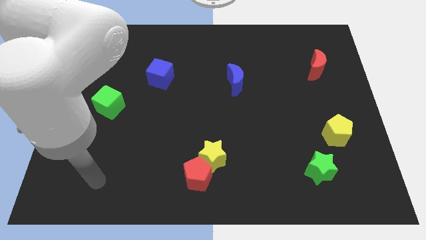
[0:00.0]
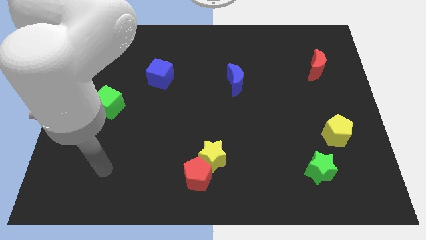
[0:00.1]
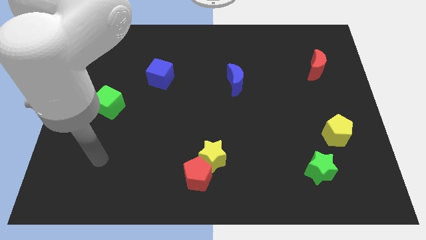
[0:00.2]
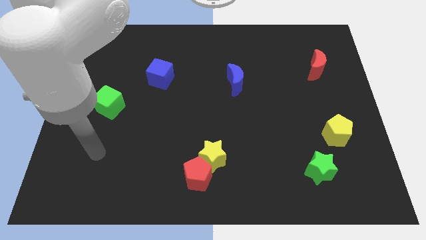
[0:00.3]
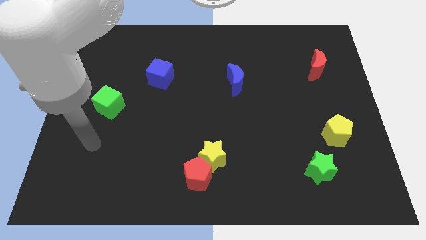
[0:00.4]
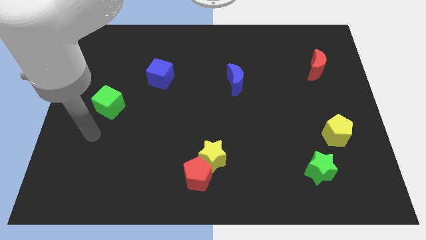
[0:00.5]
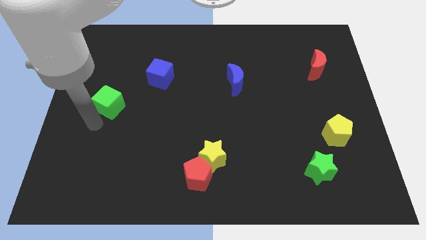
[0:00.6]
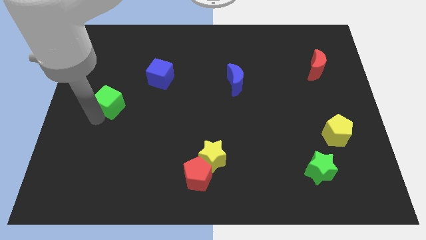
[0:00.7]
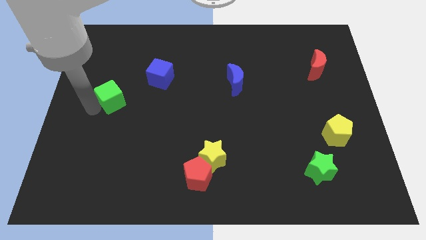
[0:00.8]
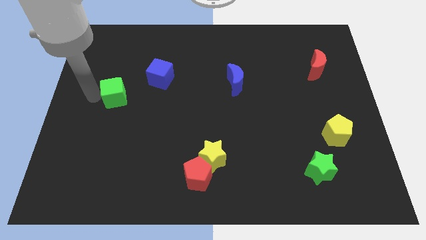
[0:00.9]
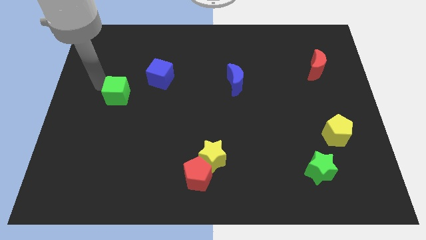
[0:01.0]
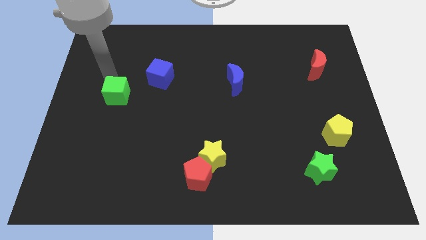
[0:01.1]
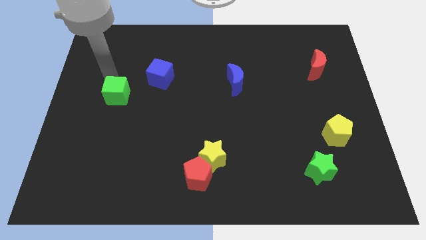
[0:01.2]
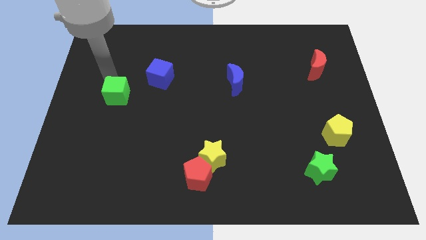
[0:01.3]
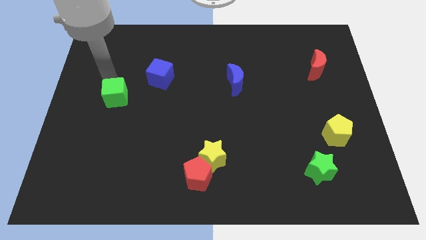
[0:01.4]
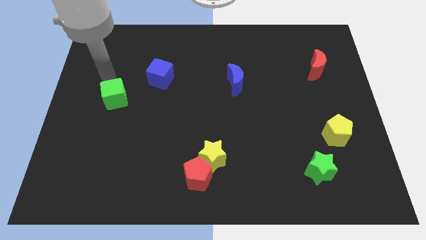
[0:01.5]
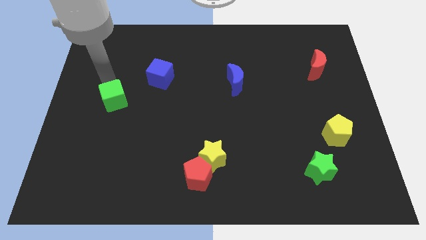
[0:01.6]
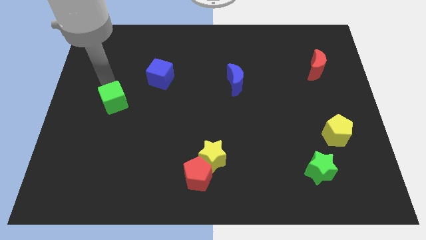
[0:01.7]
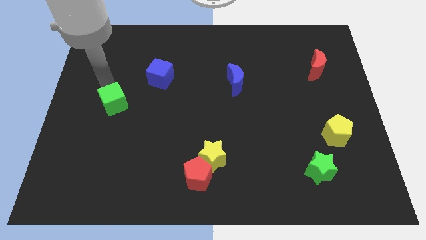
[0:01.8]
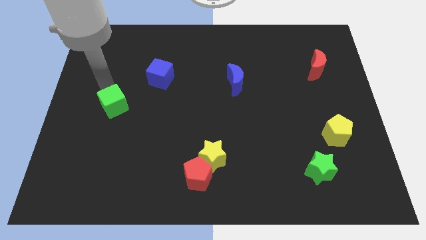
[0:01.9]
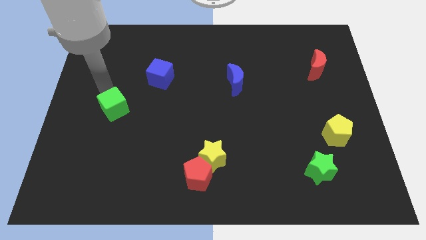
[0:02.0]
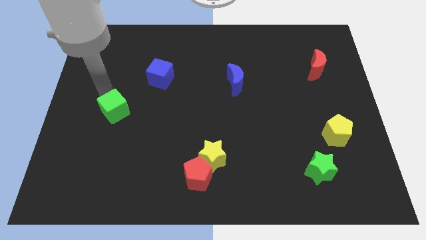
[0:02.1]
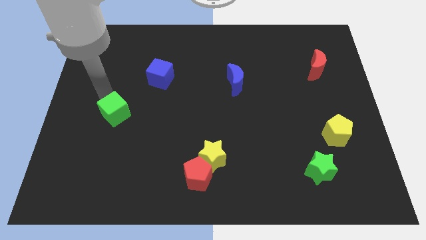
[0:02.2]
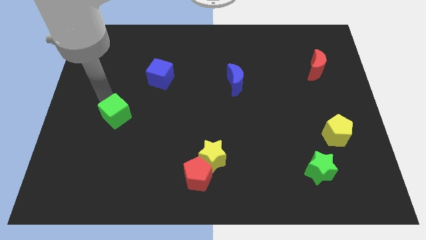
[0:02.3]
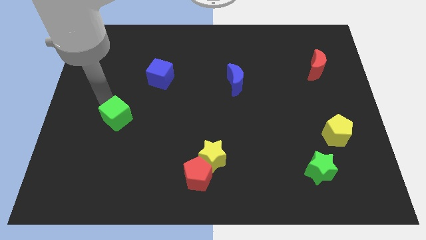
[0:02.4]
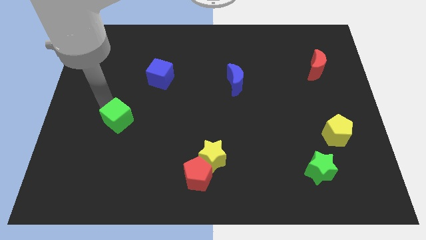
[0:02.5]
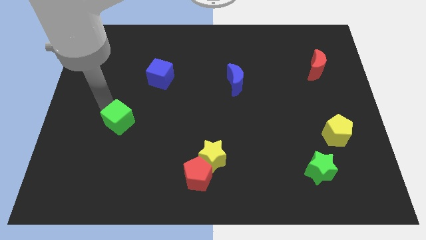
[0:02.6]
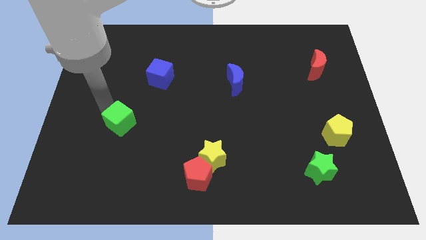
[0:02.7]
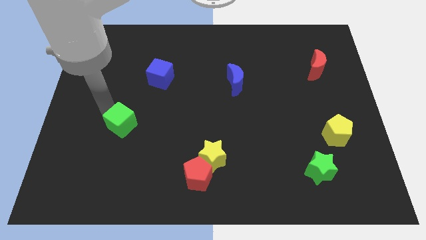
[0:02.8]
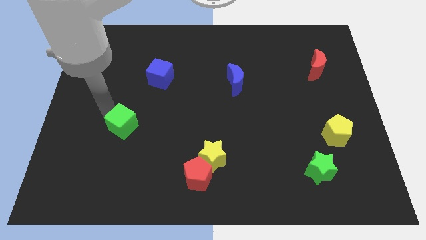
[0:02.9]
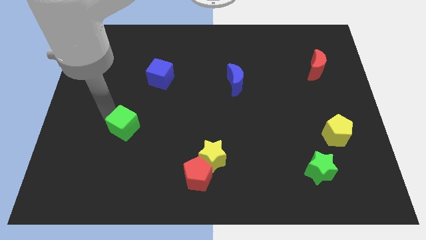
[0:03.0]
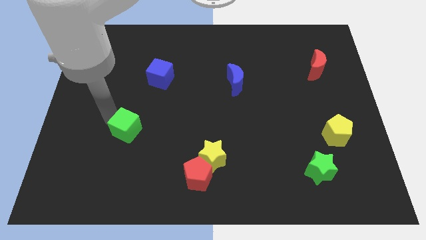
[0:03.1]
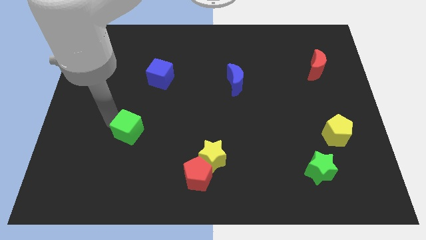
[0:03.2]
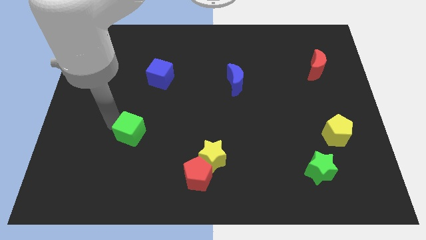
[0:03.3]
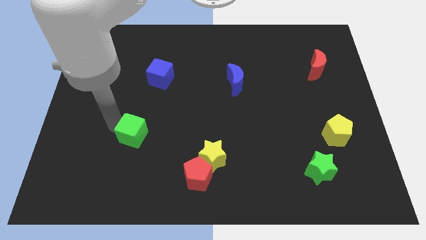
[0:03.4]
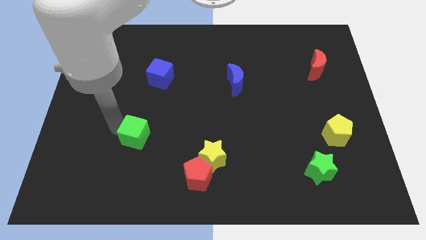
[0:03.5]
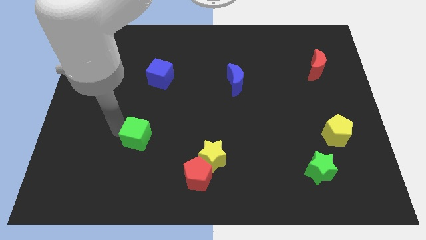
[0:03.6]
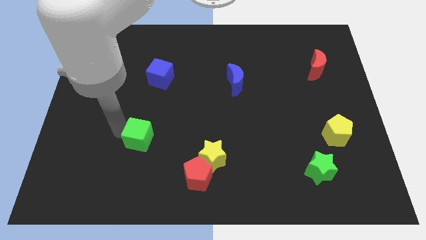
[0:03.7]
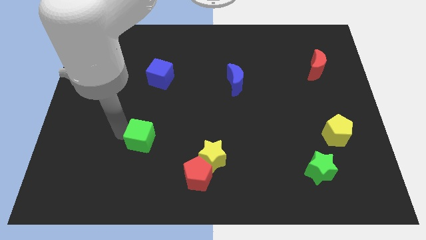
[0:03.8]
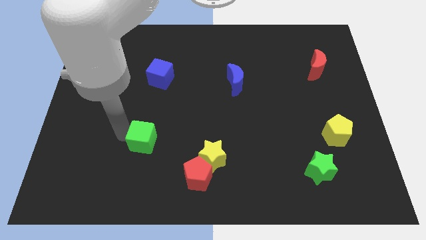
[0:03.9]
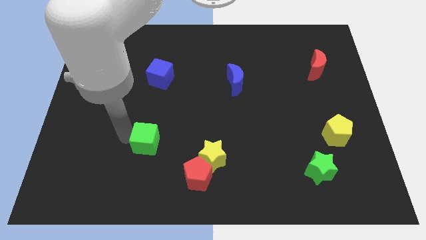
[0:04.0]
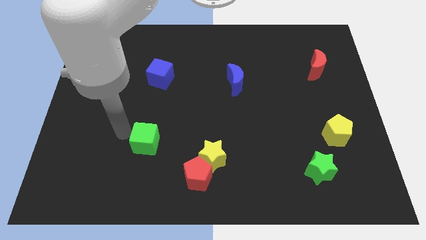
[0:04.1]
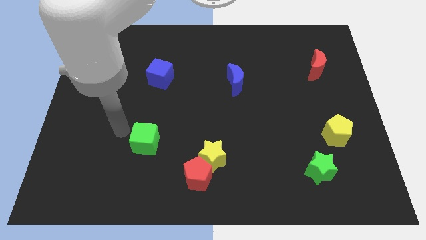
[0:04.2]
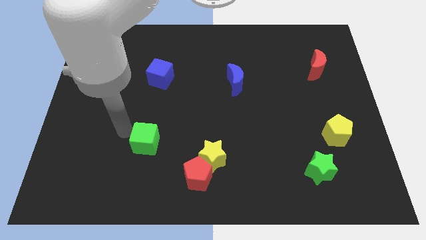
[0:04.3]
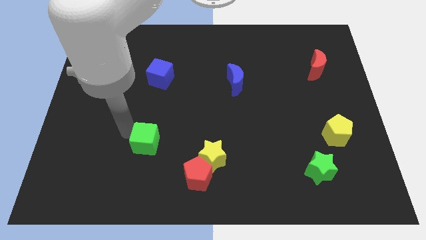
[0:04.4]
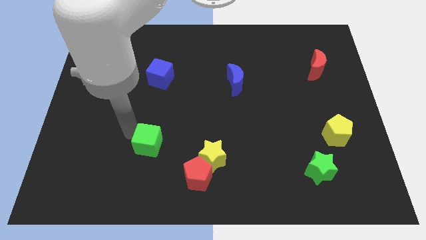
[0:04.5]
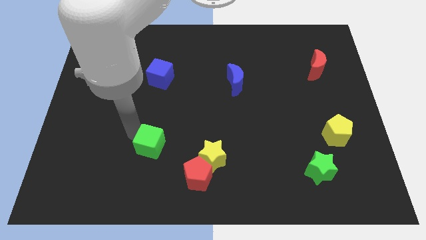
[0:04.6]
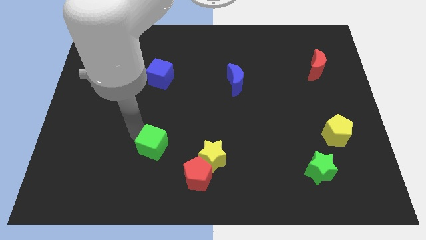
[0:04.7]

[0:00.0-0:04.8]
push the green cube to the top left side of the red pentagon

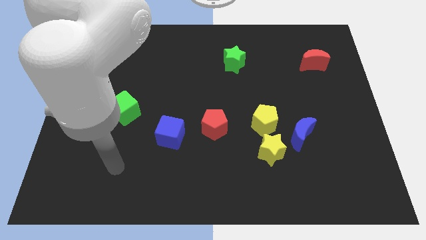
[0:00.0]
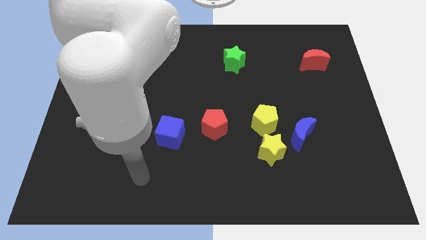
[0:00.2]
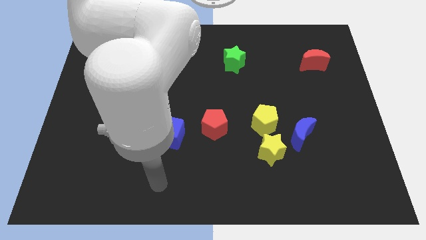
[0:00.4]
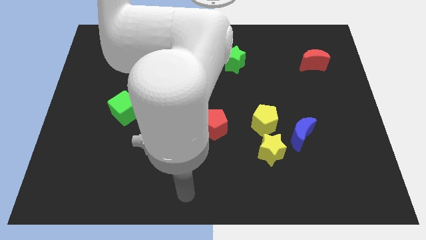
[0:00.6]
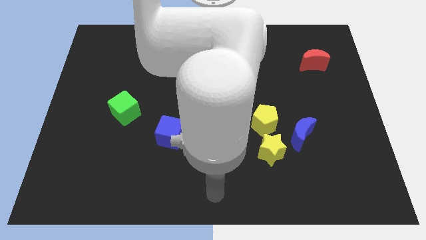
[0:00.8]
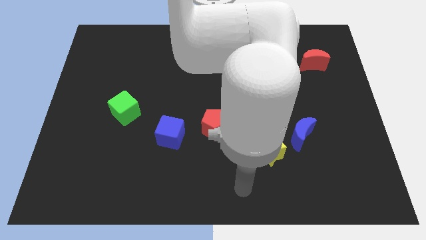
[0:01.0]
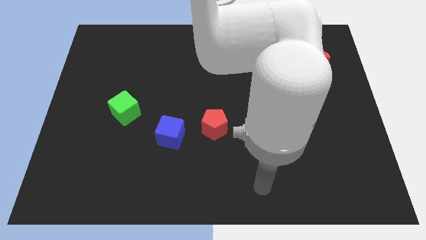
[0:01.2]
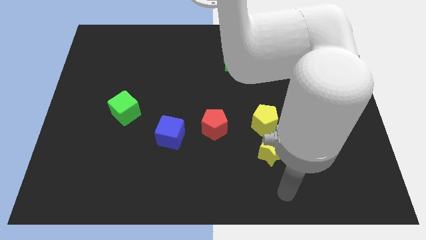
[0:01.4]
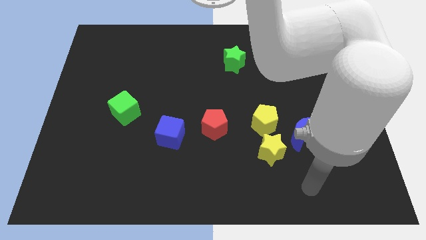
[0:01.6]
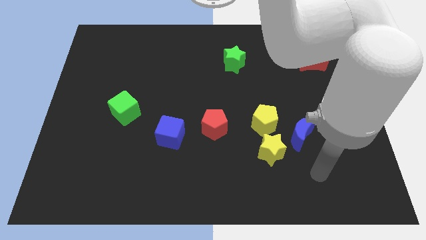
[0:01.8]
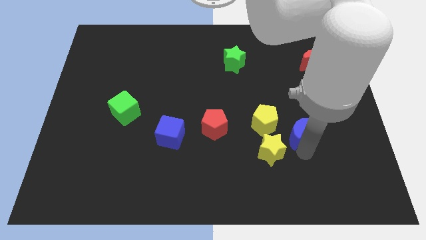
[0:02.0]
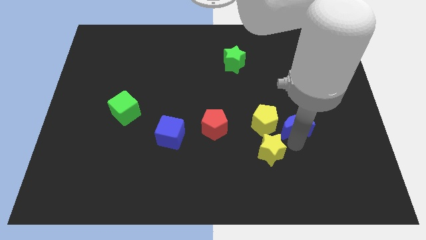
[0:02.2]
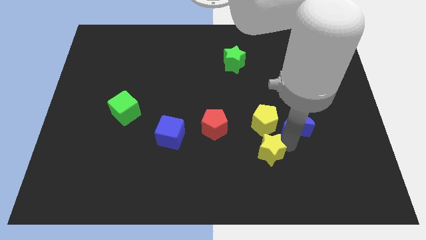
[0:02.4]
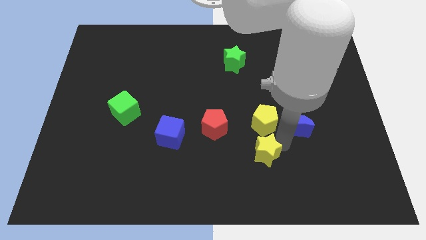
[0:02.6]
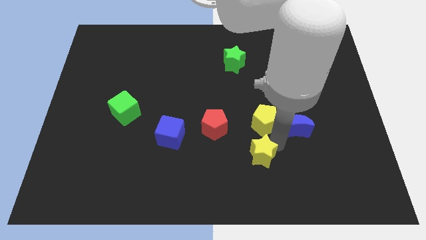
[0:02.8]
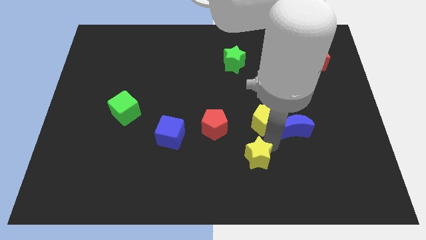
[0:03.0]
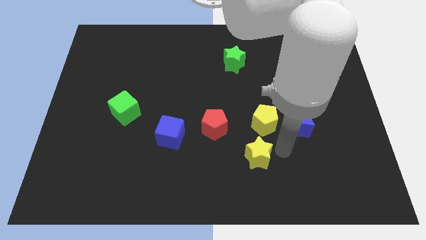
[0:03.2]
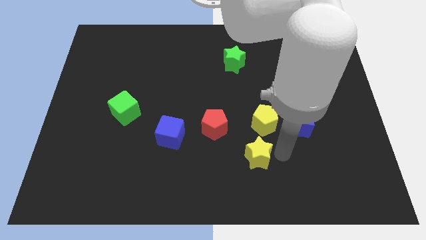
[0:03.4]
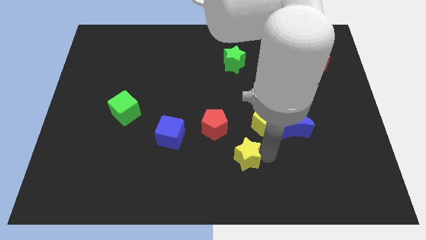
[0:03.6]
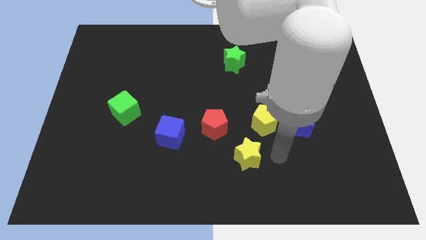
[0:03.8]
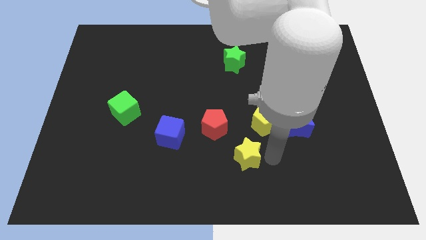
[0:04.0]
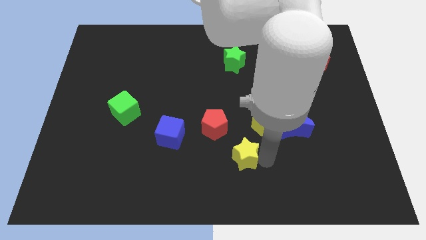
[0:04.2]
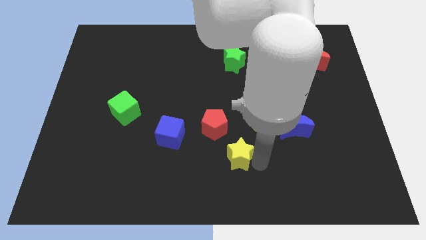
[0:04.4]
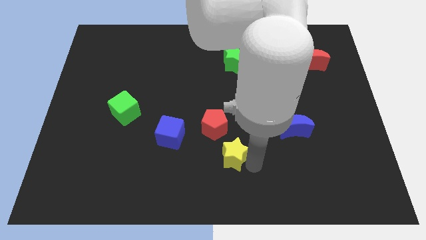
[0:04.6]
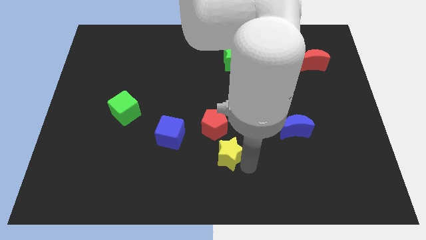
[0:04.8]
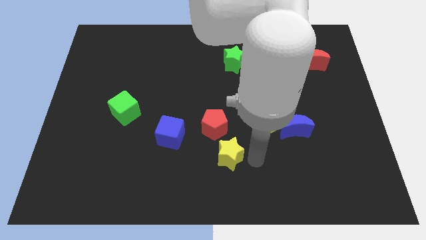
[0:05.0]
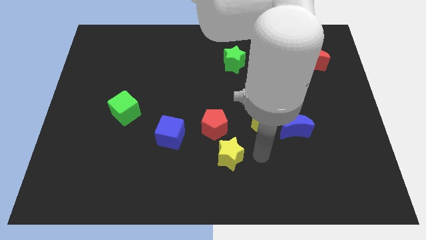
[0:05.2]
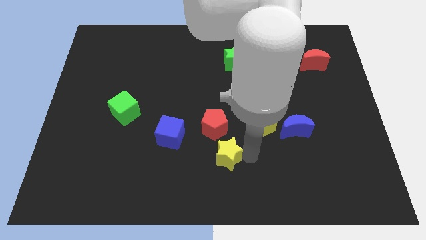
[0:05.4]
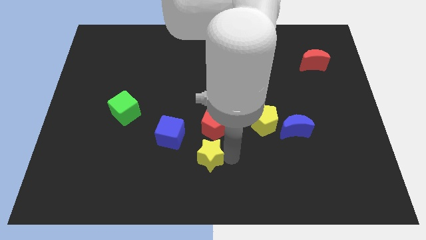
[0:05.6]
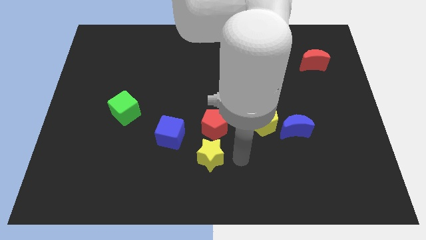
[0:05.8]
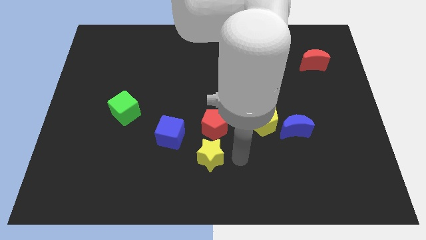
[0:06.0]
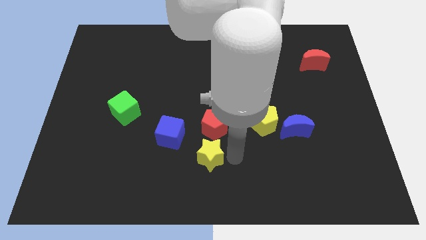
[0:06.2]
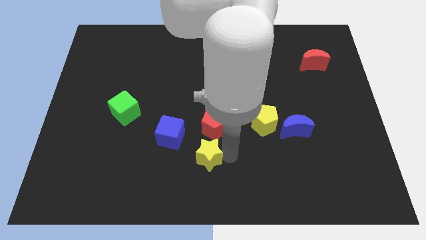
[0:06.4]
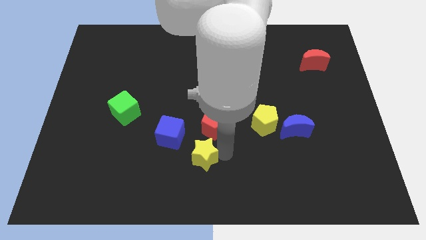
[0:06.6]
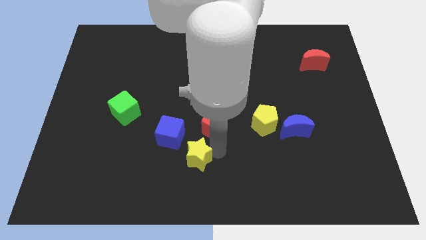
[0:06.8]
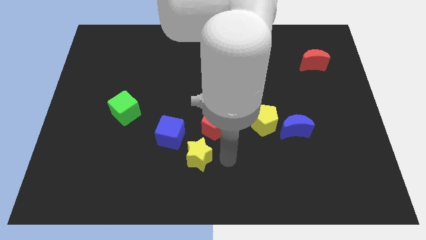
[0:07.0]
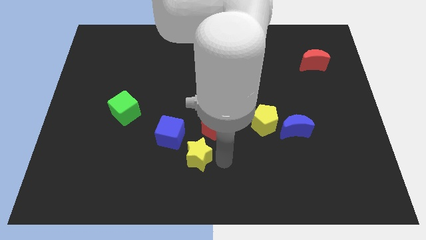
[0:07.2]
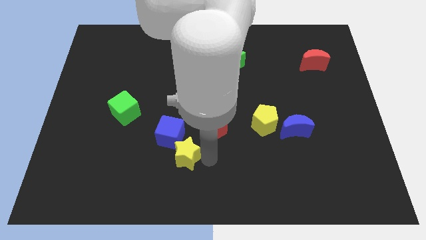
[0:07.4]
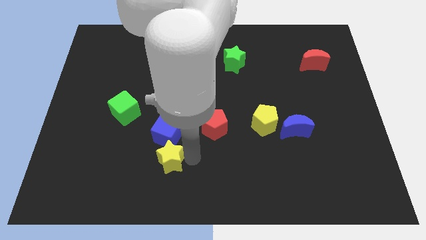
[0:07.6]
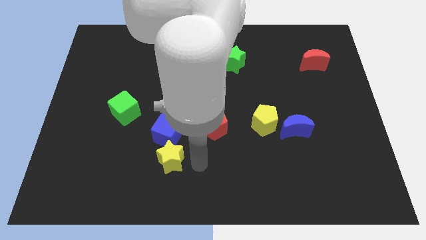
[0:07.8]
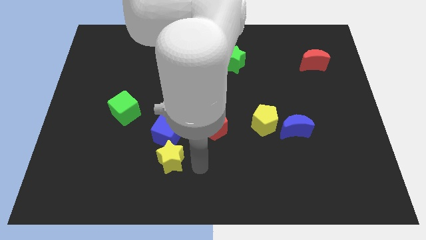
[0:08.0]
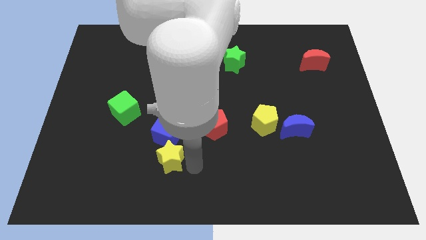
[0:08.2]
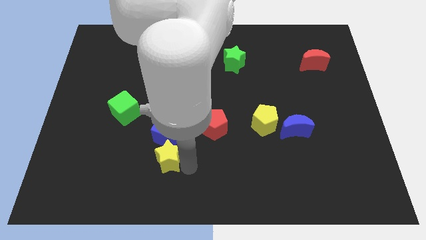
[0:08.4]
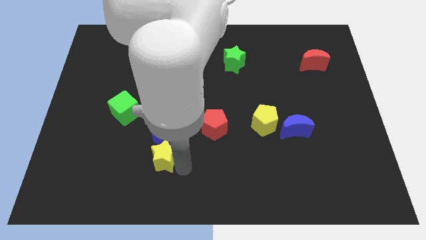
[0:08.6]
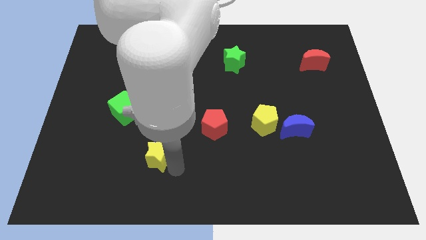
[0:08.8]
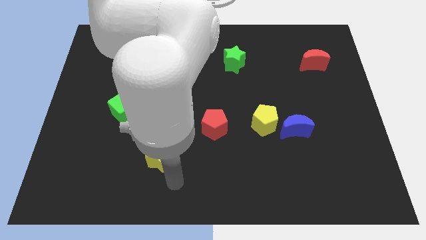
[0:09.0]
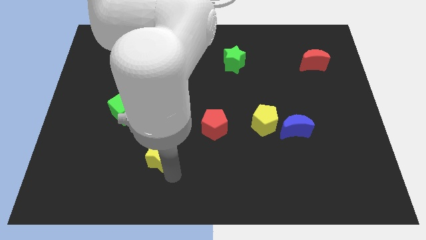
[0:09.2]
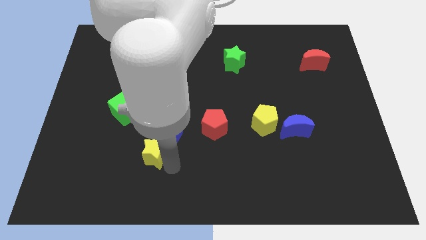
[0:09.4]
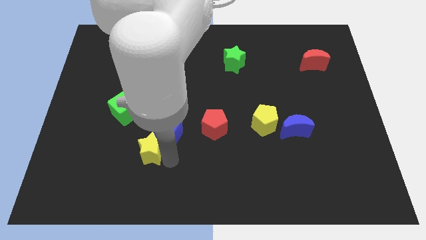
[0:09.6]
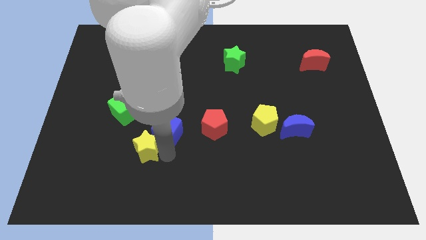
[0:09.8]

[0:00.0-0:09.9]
put the yellow star to the bottom right side of the green cube
